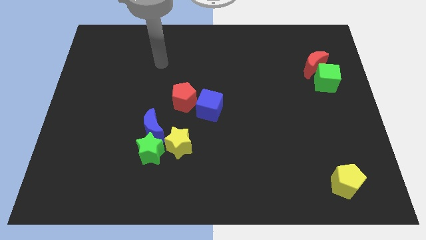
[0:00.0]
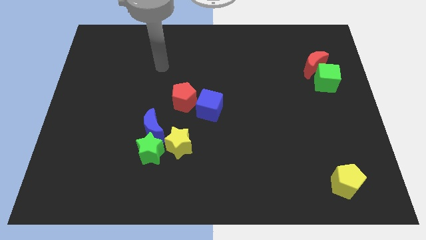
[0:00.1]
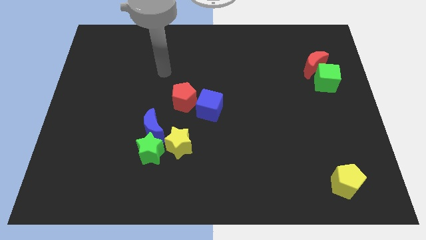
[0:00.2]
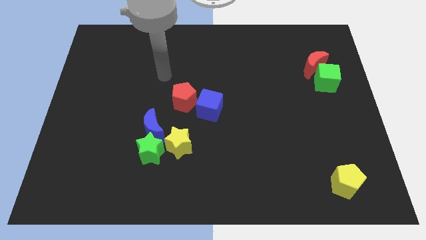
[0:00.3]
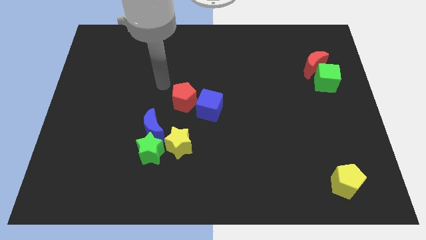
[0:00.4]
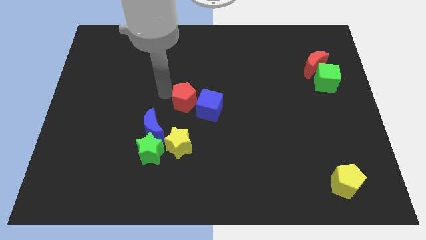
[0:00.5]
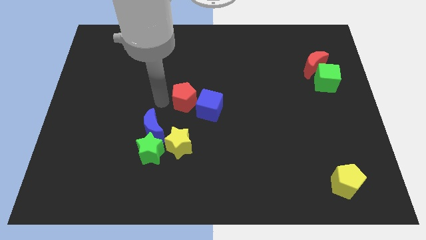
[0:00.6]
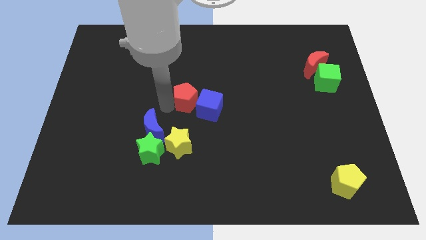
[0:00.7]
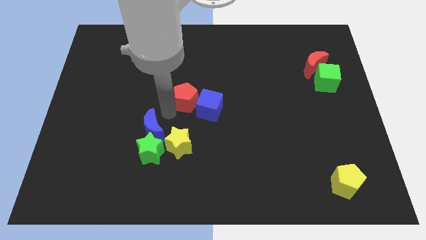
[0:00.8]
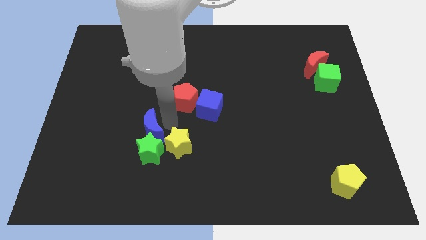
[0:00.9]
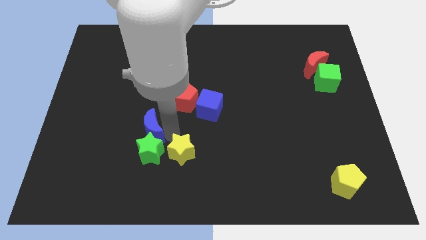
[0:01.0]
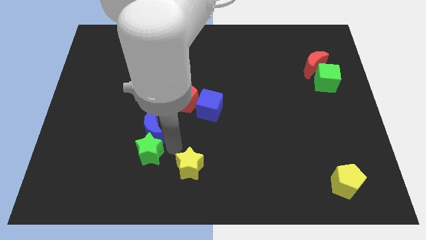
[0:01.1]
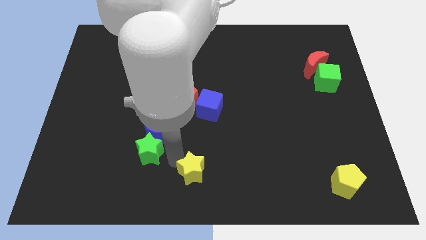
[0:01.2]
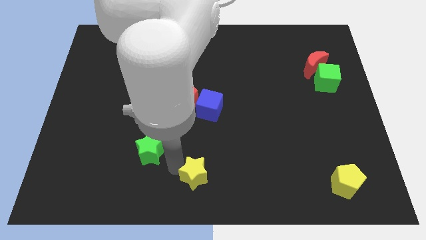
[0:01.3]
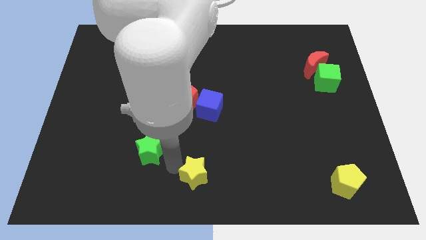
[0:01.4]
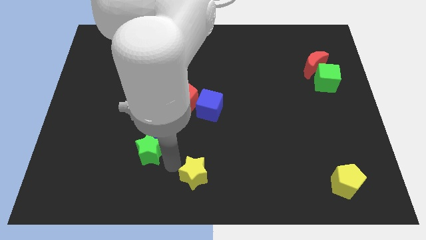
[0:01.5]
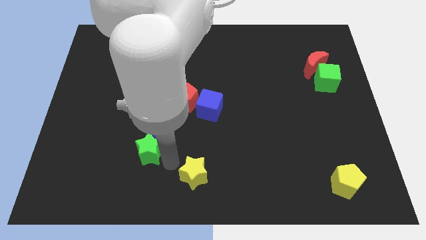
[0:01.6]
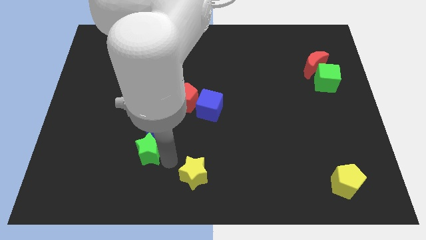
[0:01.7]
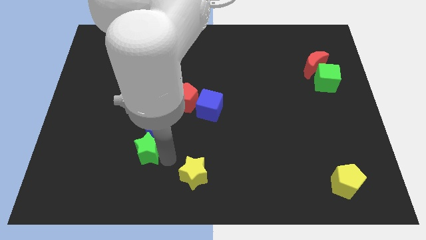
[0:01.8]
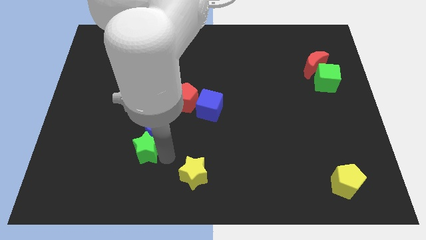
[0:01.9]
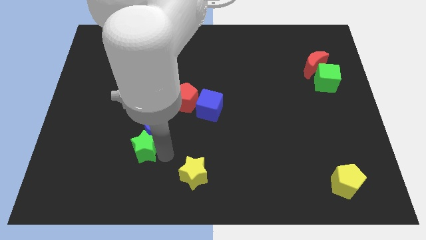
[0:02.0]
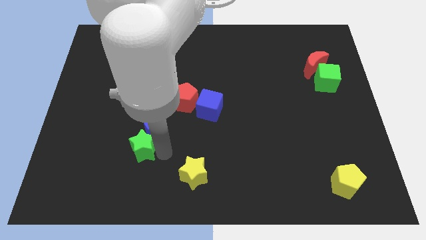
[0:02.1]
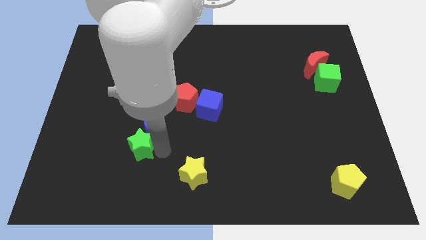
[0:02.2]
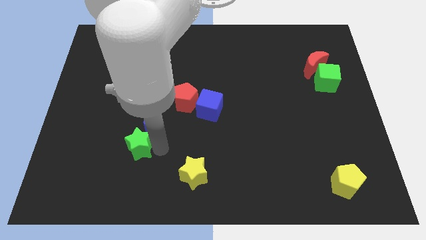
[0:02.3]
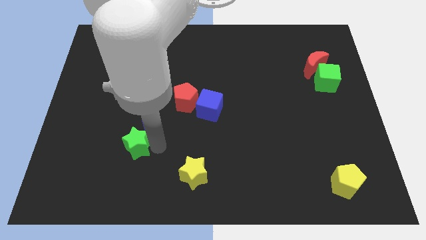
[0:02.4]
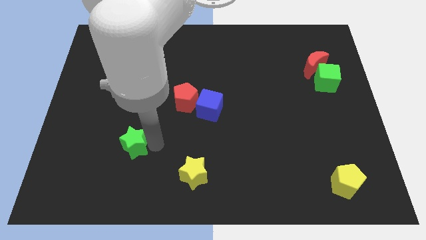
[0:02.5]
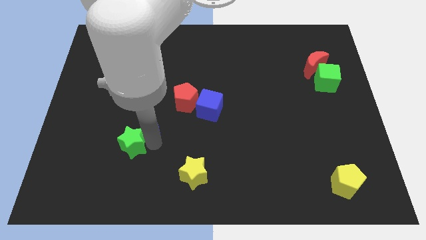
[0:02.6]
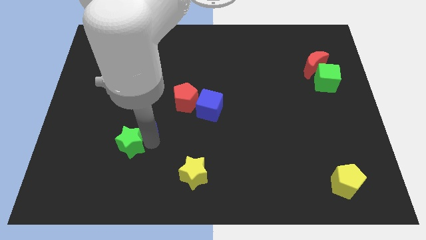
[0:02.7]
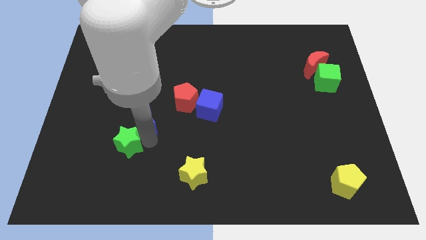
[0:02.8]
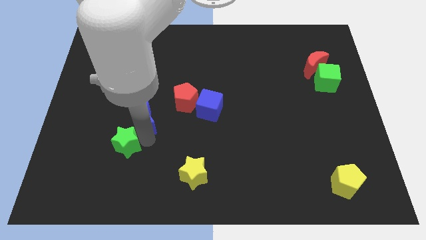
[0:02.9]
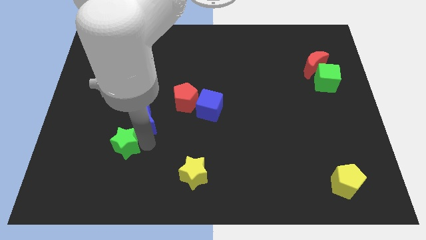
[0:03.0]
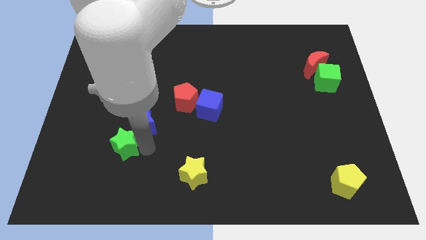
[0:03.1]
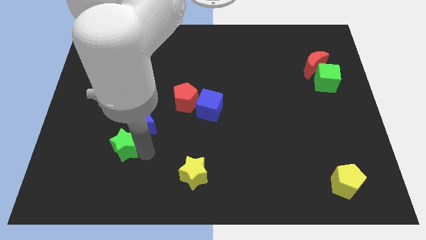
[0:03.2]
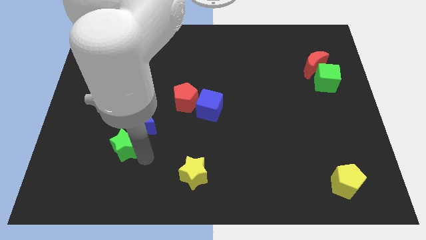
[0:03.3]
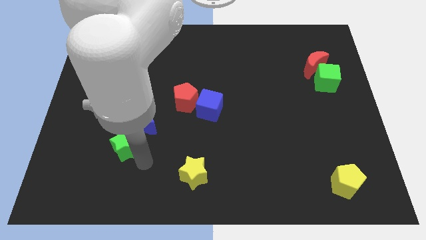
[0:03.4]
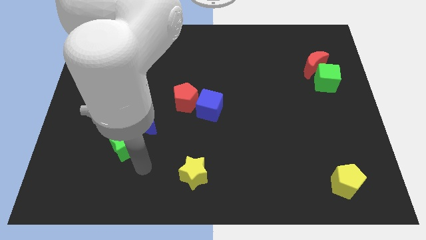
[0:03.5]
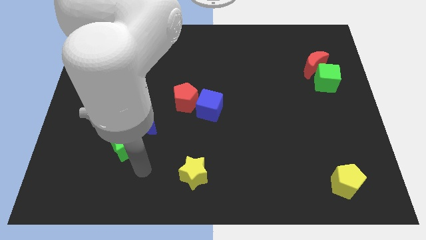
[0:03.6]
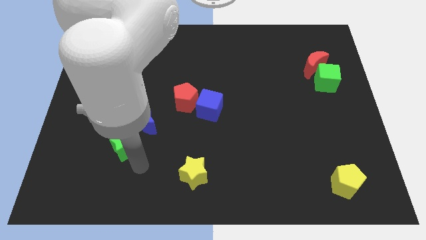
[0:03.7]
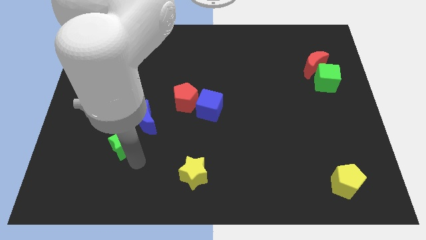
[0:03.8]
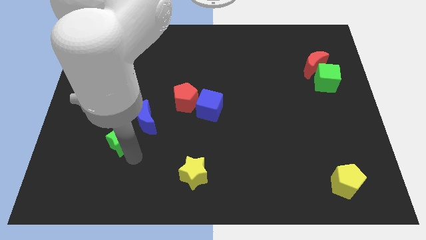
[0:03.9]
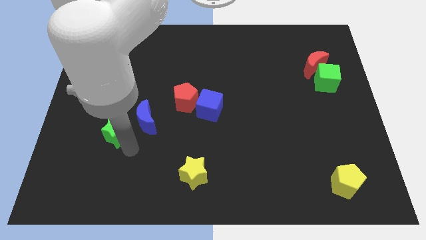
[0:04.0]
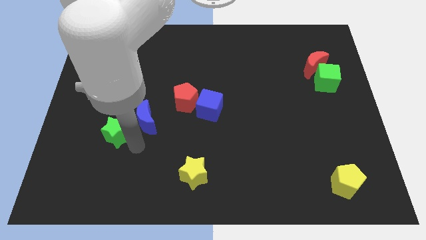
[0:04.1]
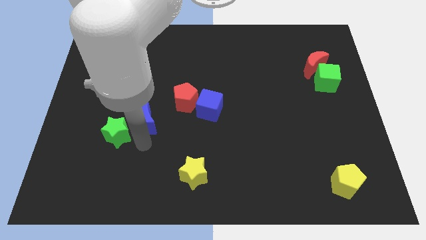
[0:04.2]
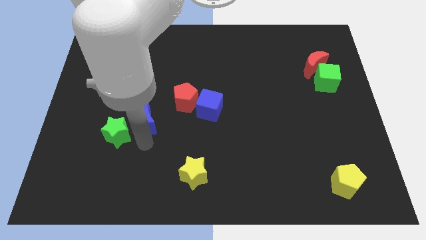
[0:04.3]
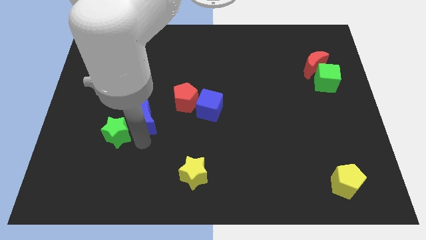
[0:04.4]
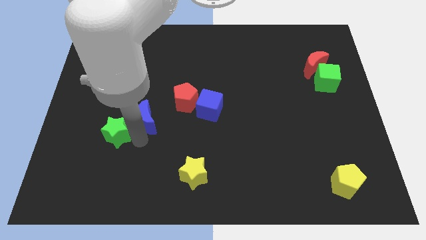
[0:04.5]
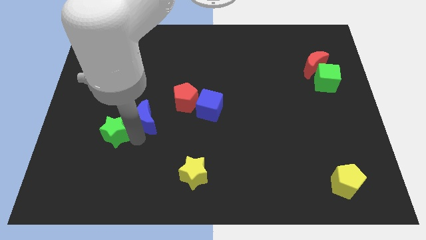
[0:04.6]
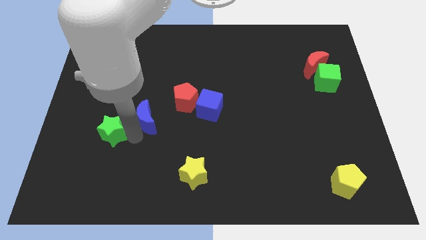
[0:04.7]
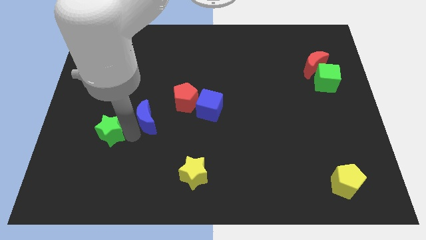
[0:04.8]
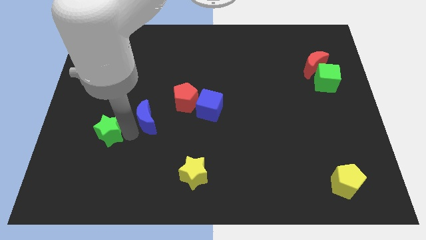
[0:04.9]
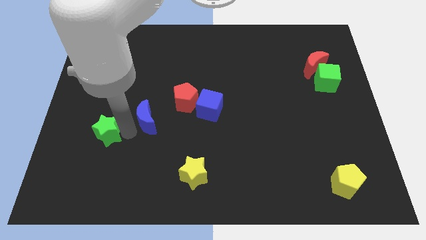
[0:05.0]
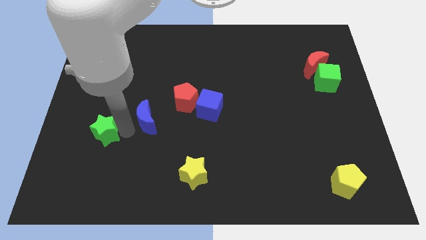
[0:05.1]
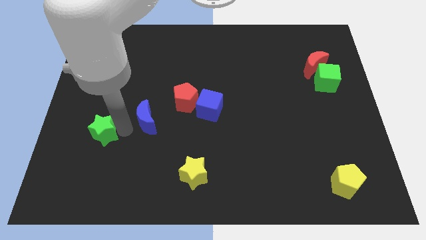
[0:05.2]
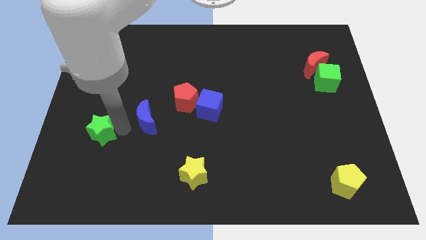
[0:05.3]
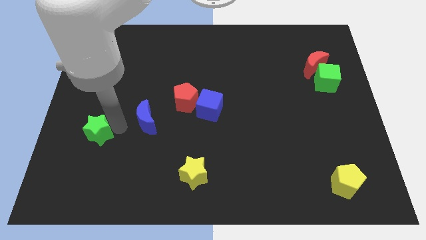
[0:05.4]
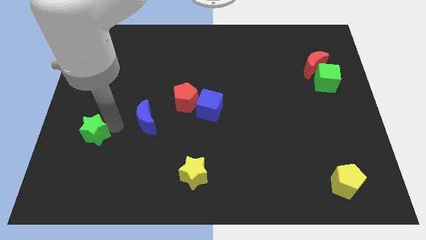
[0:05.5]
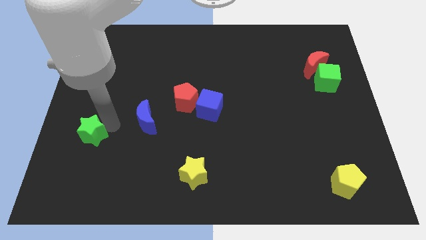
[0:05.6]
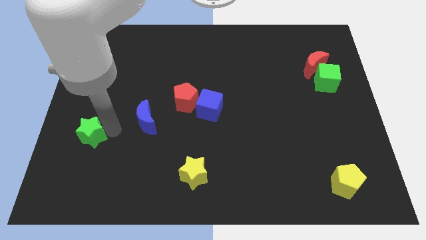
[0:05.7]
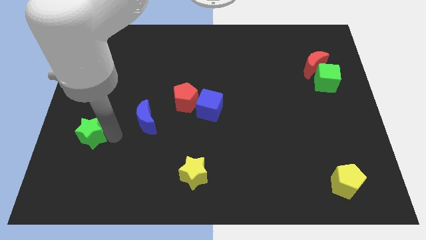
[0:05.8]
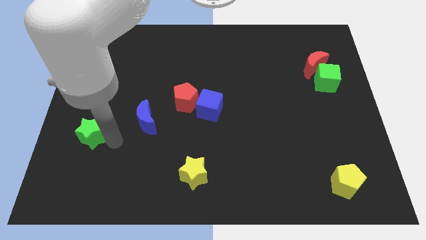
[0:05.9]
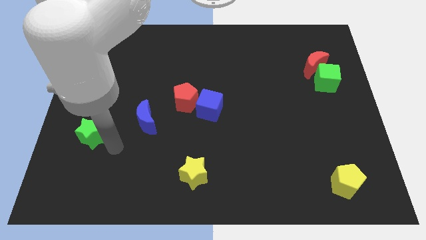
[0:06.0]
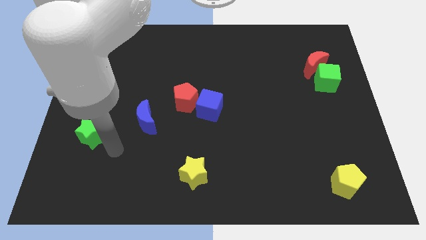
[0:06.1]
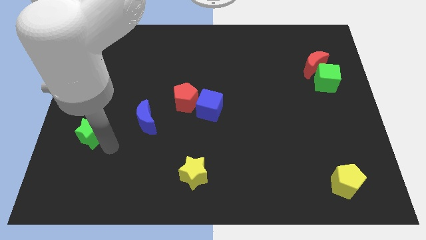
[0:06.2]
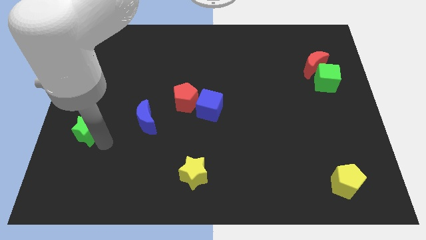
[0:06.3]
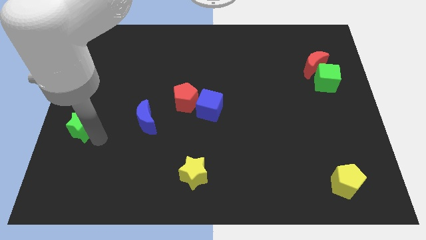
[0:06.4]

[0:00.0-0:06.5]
put the green star to the left side
